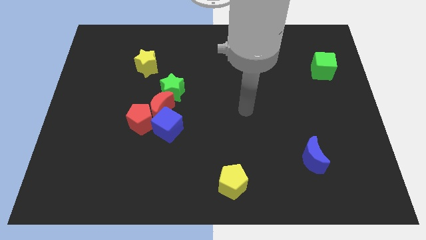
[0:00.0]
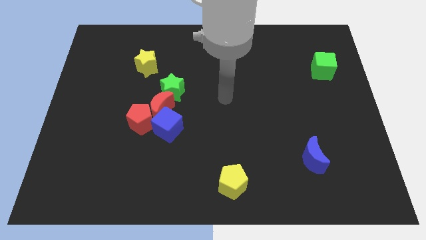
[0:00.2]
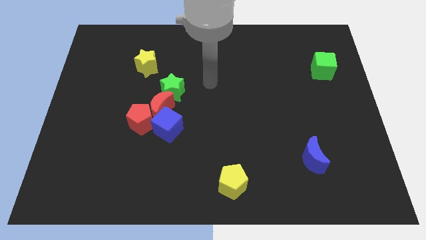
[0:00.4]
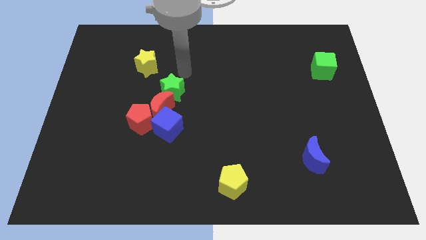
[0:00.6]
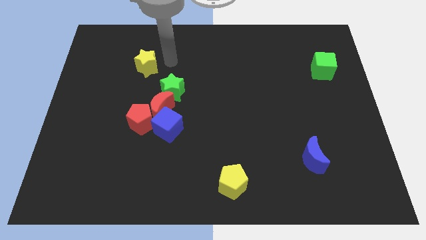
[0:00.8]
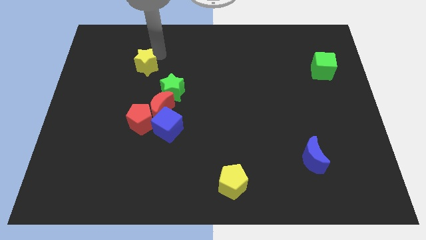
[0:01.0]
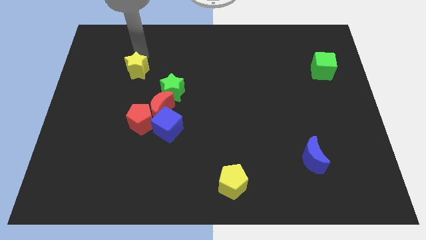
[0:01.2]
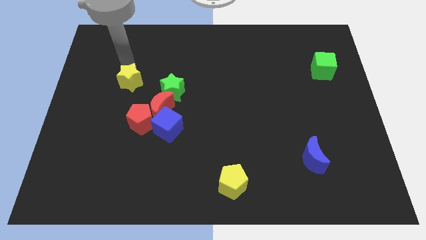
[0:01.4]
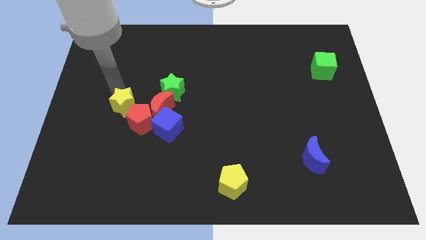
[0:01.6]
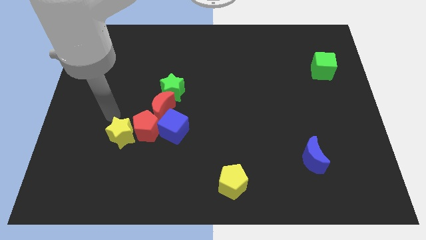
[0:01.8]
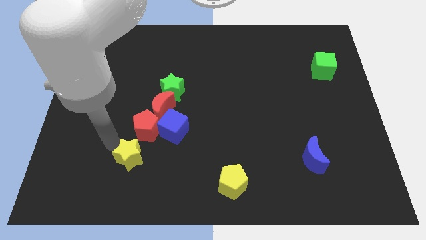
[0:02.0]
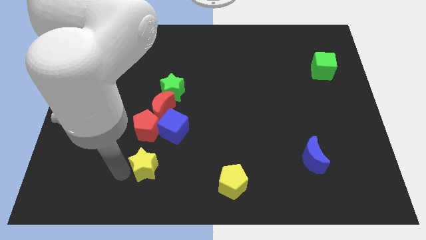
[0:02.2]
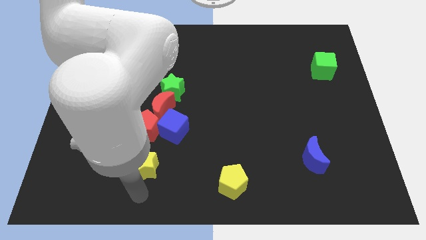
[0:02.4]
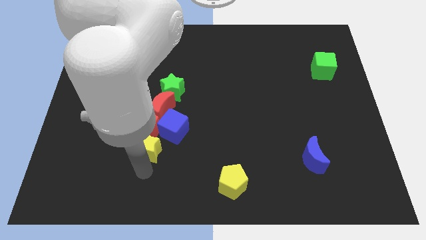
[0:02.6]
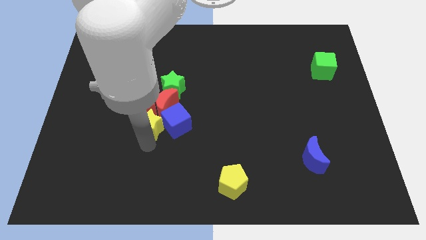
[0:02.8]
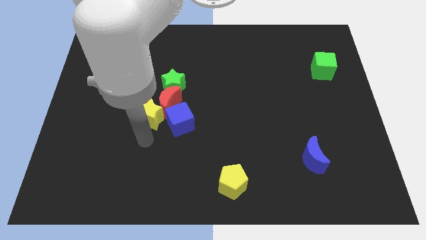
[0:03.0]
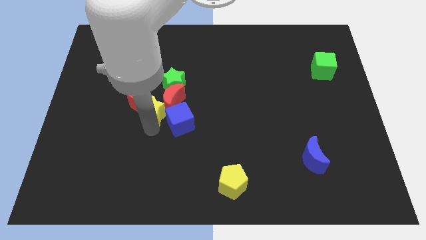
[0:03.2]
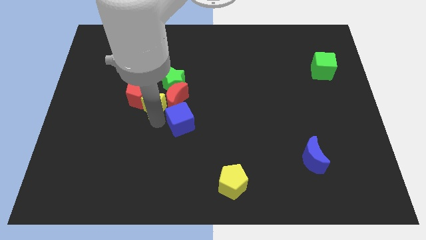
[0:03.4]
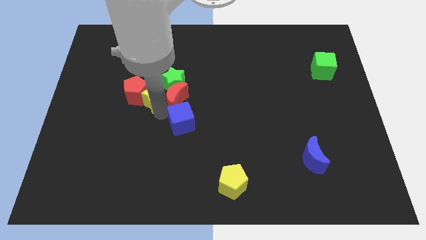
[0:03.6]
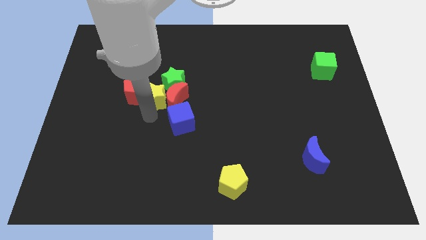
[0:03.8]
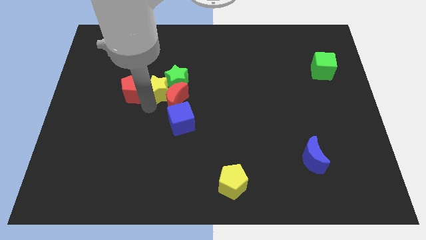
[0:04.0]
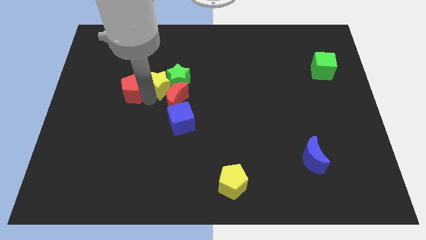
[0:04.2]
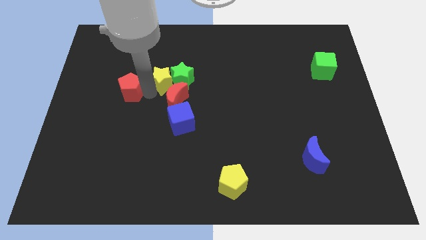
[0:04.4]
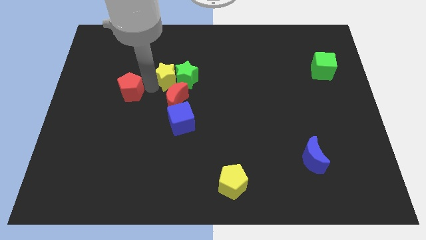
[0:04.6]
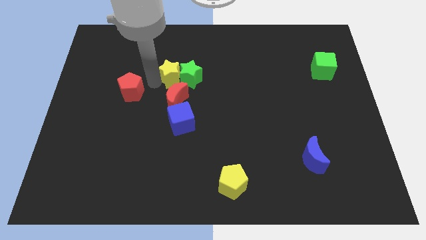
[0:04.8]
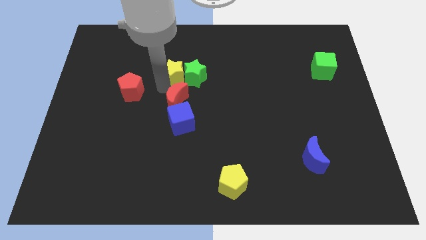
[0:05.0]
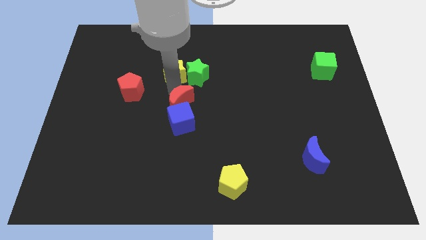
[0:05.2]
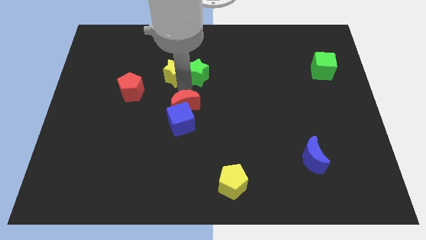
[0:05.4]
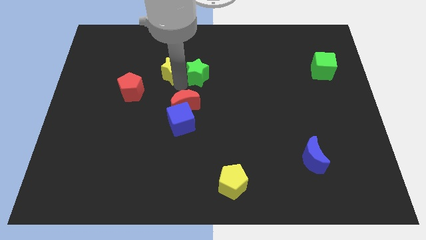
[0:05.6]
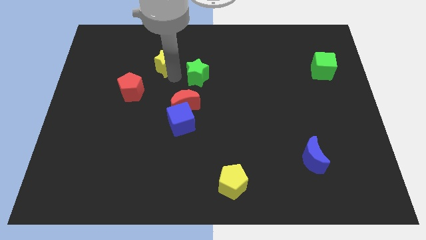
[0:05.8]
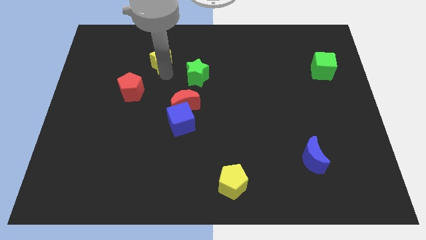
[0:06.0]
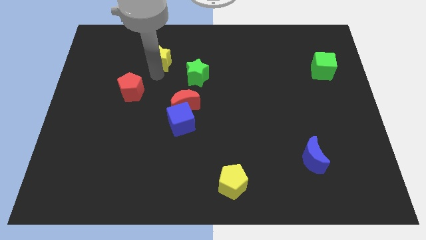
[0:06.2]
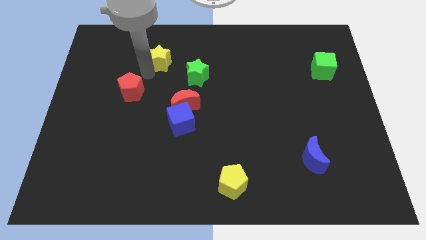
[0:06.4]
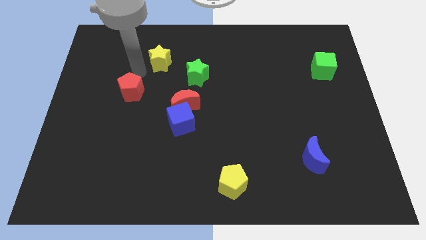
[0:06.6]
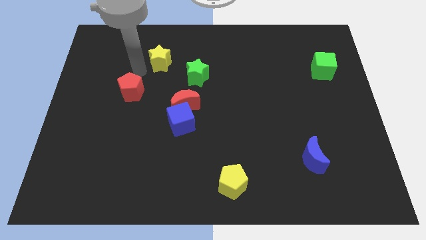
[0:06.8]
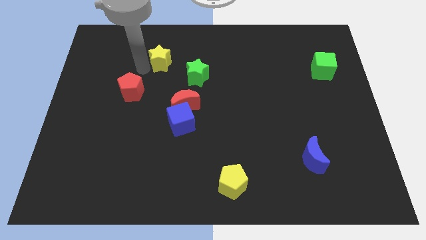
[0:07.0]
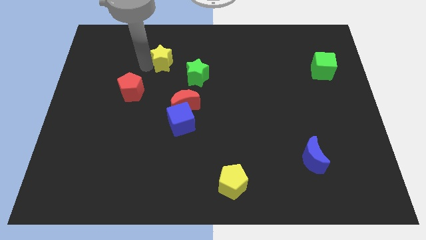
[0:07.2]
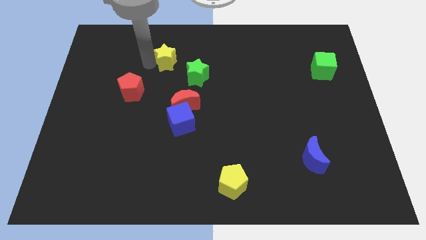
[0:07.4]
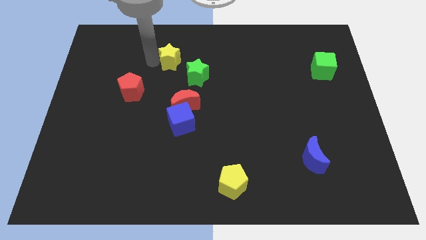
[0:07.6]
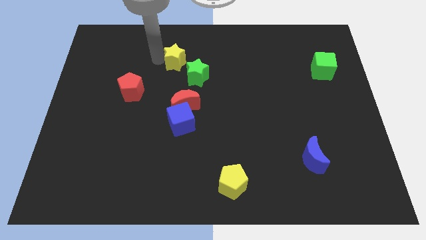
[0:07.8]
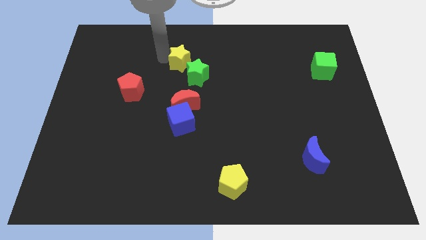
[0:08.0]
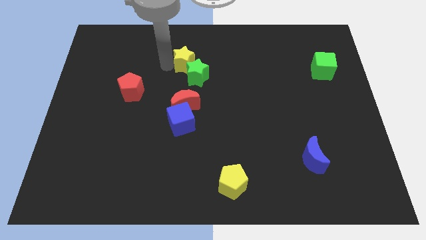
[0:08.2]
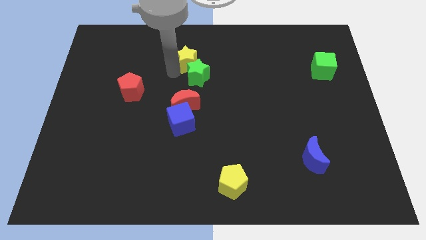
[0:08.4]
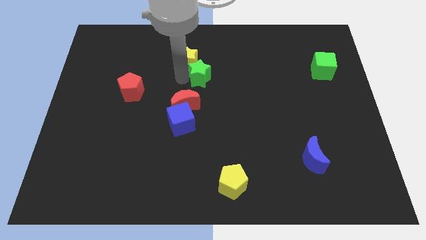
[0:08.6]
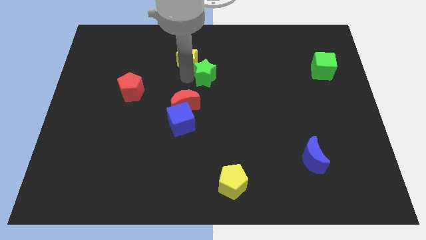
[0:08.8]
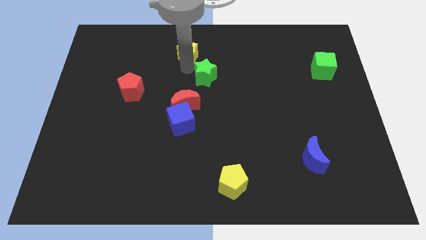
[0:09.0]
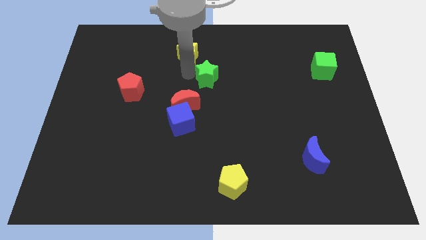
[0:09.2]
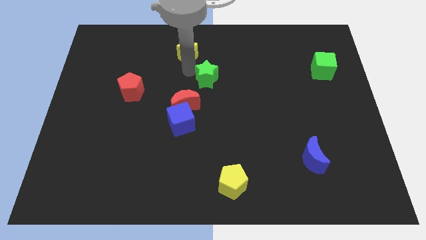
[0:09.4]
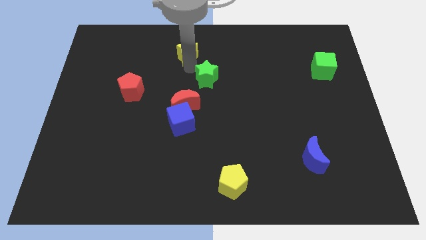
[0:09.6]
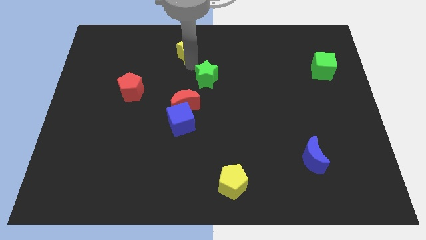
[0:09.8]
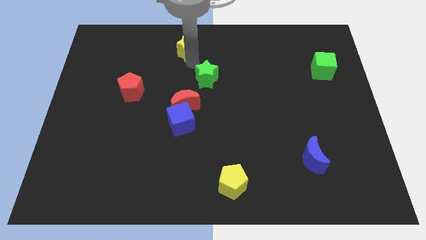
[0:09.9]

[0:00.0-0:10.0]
put the yellow star to the towards your base

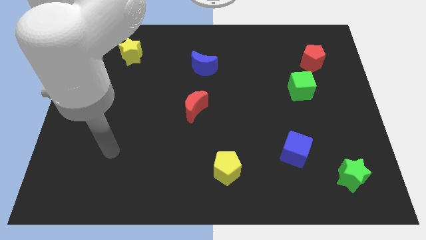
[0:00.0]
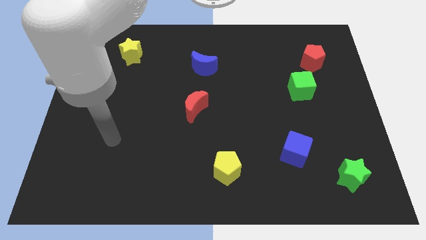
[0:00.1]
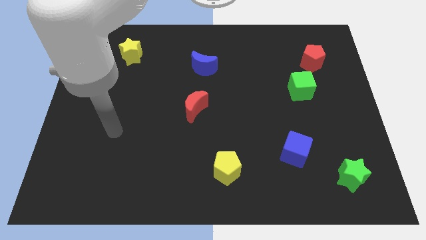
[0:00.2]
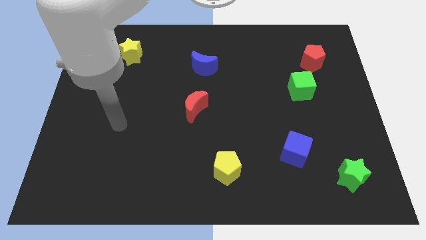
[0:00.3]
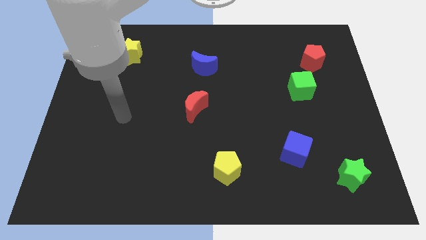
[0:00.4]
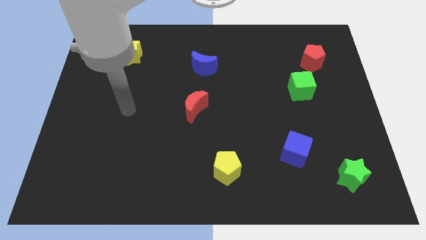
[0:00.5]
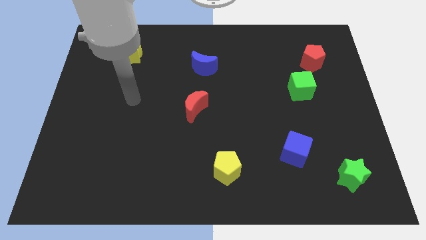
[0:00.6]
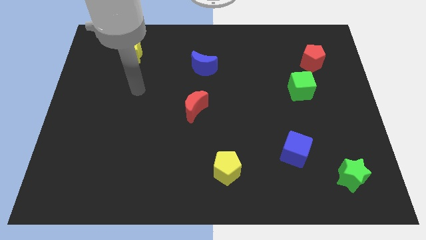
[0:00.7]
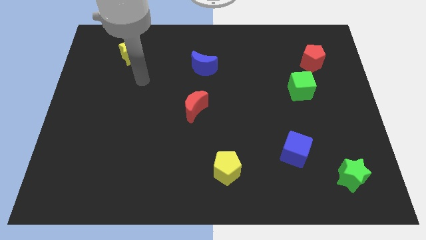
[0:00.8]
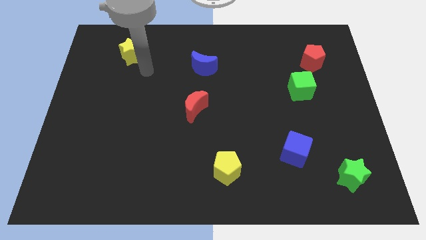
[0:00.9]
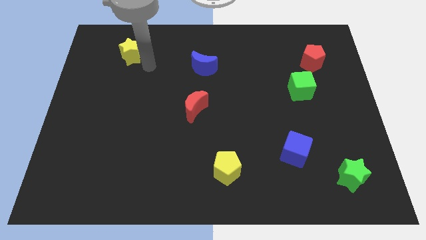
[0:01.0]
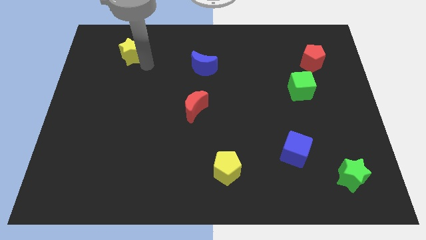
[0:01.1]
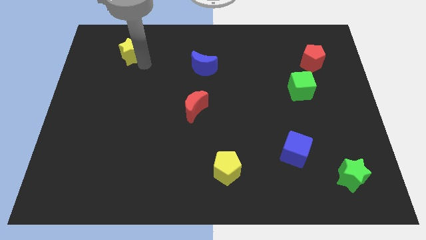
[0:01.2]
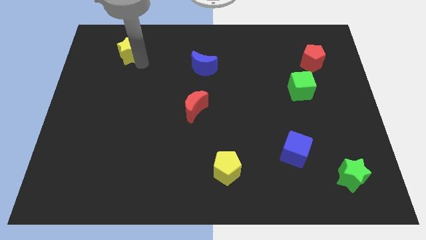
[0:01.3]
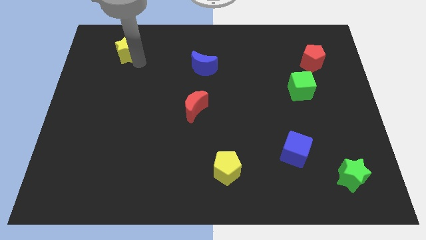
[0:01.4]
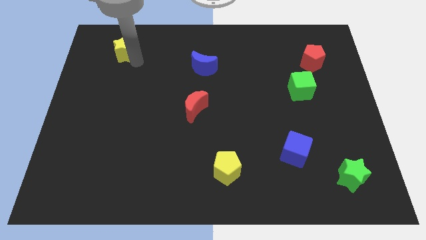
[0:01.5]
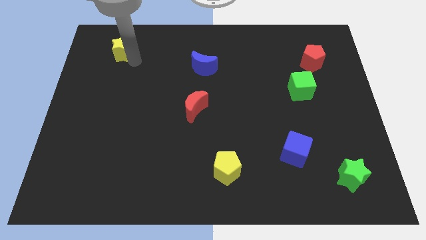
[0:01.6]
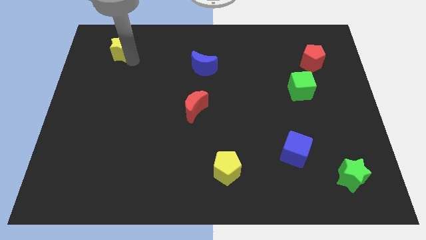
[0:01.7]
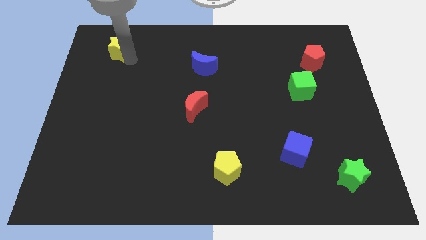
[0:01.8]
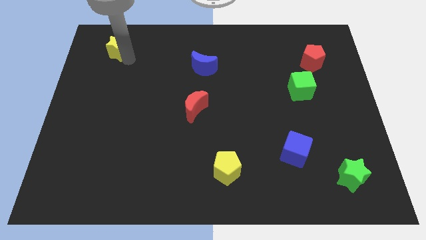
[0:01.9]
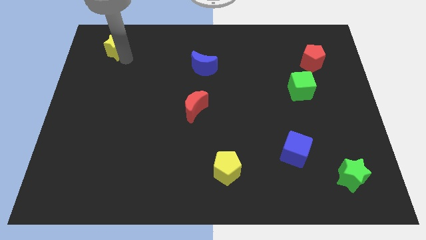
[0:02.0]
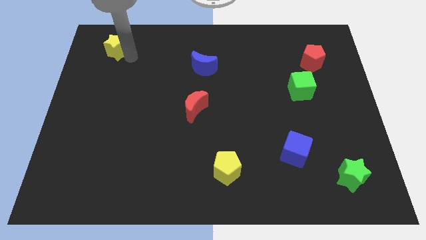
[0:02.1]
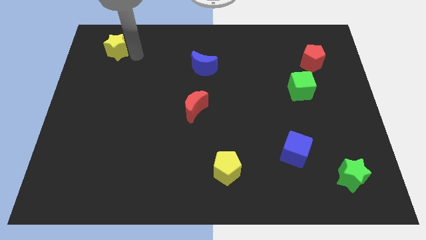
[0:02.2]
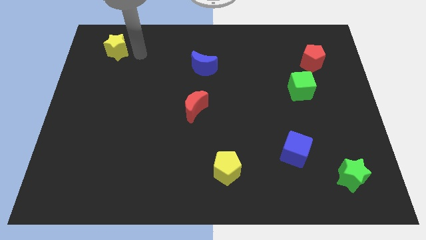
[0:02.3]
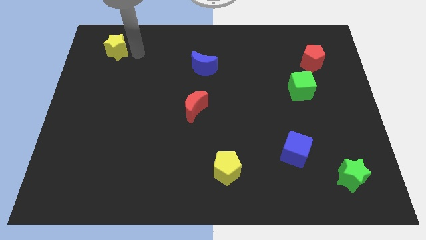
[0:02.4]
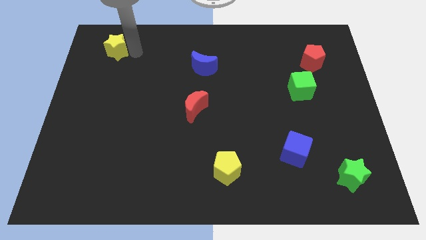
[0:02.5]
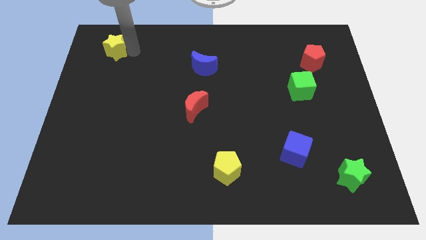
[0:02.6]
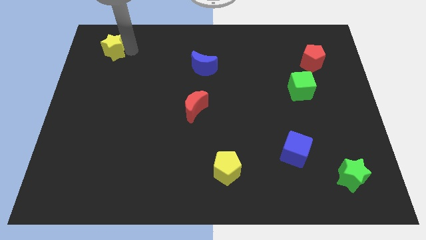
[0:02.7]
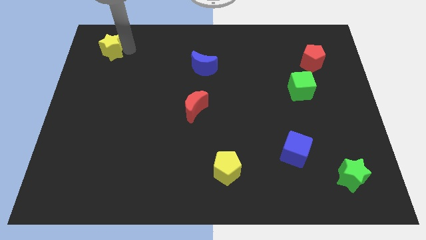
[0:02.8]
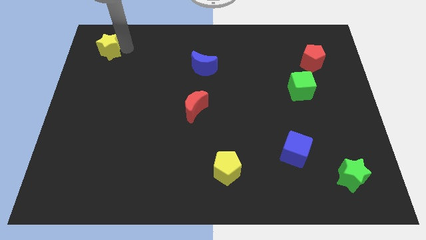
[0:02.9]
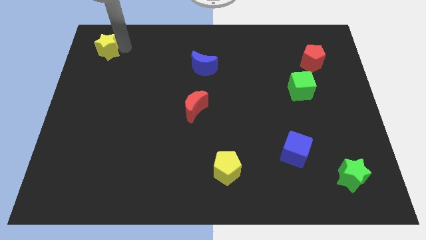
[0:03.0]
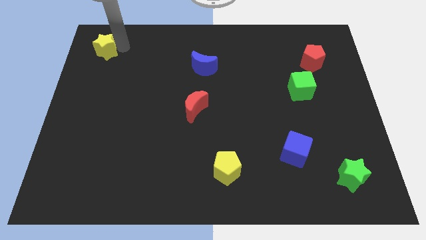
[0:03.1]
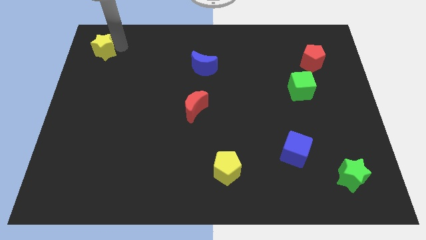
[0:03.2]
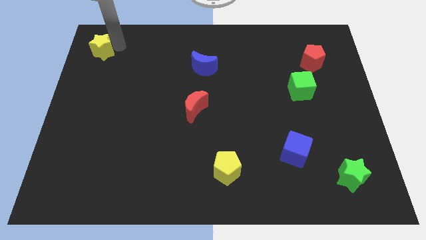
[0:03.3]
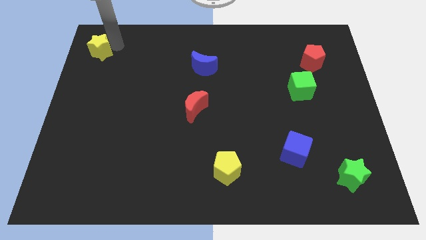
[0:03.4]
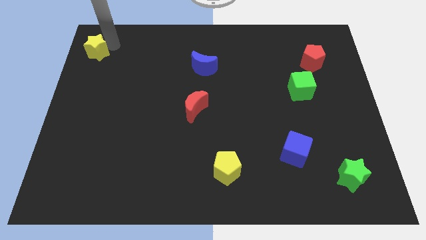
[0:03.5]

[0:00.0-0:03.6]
put the yellow star to the top left corner
